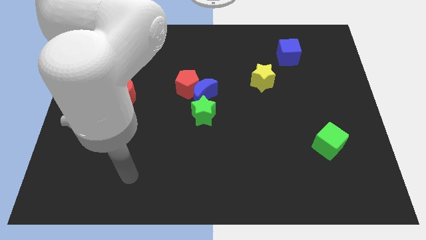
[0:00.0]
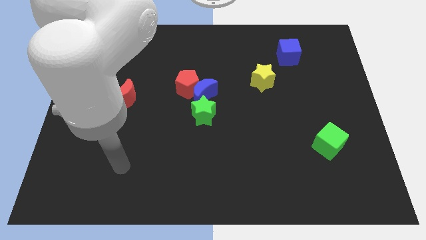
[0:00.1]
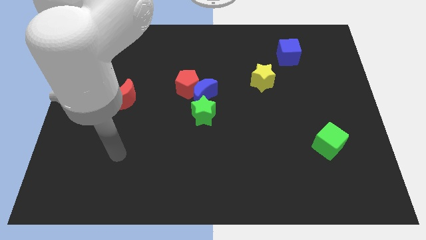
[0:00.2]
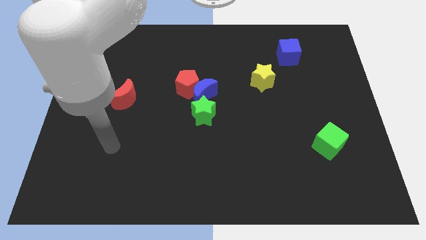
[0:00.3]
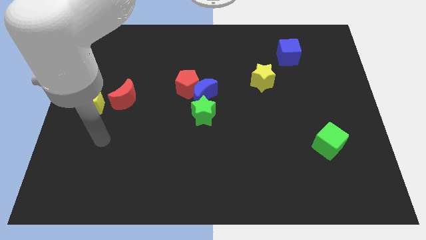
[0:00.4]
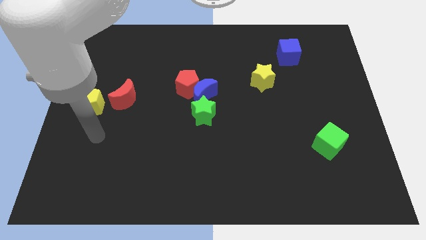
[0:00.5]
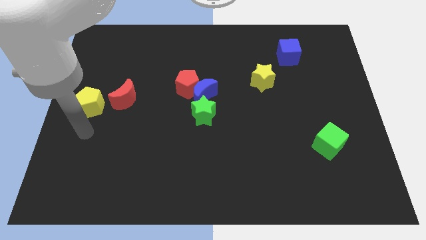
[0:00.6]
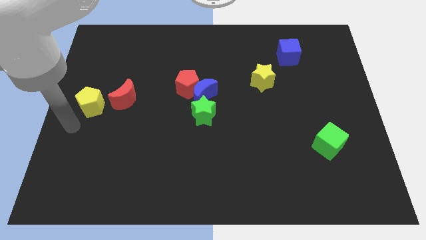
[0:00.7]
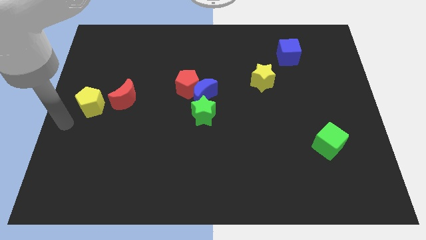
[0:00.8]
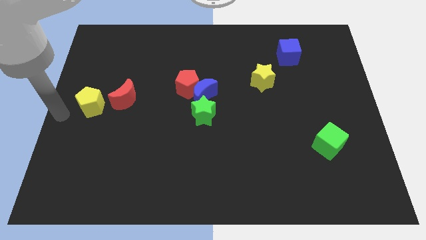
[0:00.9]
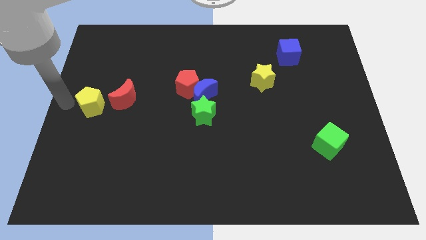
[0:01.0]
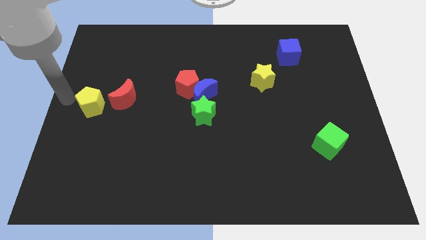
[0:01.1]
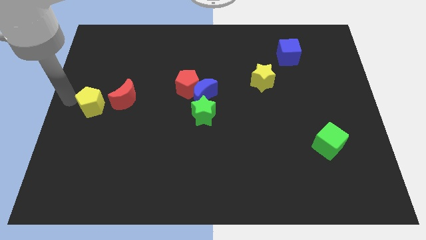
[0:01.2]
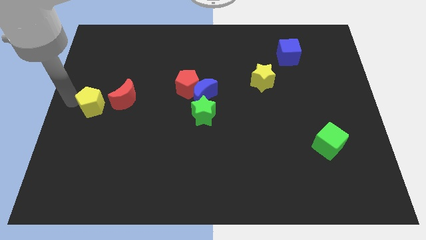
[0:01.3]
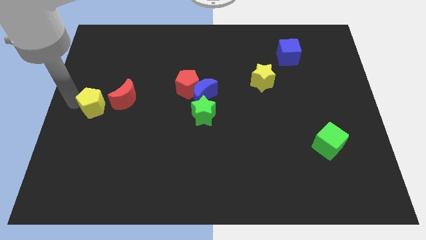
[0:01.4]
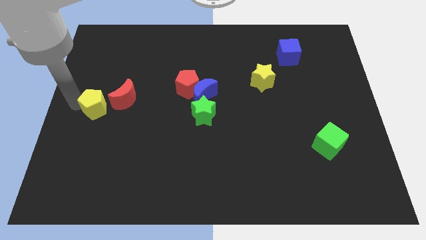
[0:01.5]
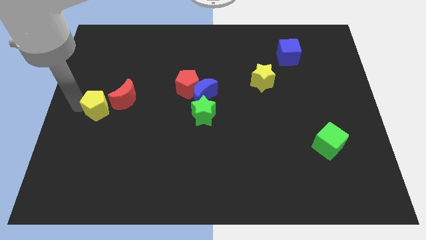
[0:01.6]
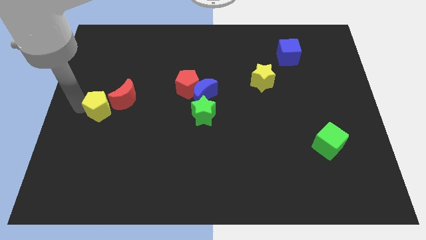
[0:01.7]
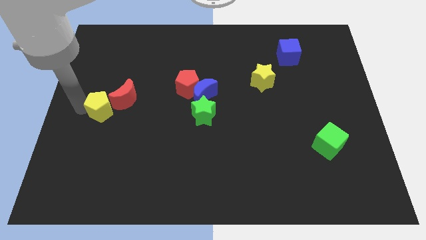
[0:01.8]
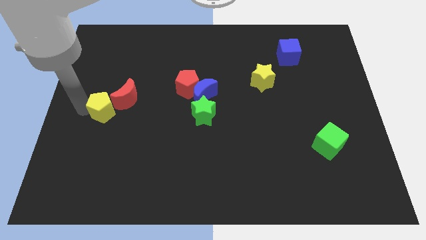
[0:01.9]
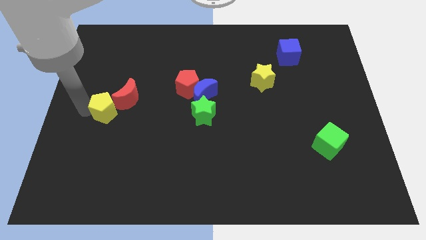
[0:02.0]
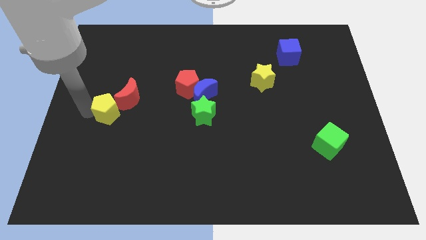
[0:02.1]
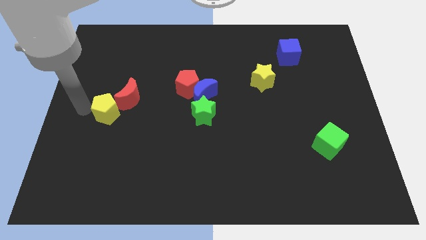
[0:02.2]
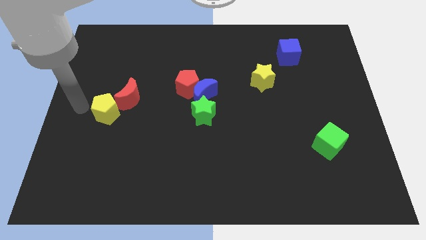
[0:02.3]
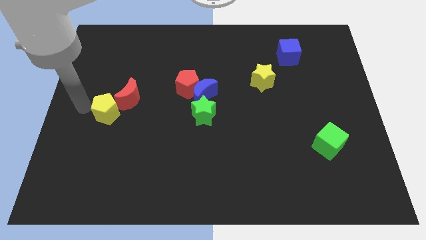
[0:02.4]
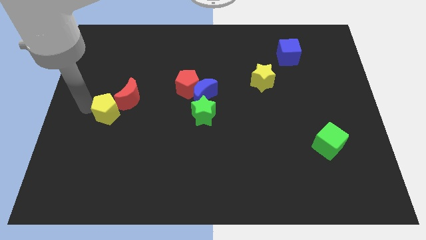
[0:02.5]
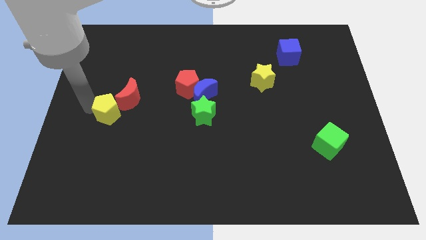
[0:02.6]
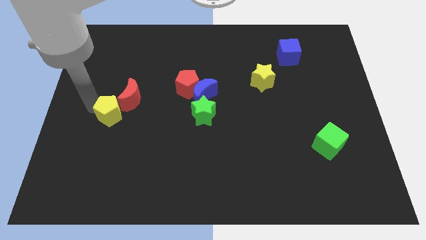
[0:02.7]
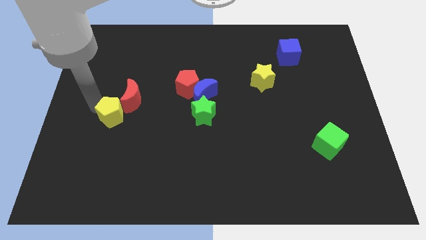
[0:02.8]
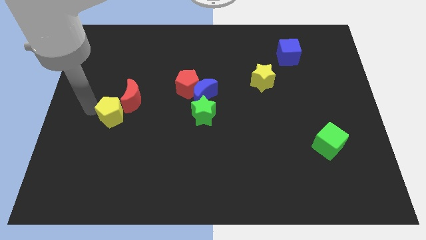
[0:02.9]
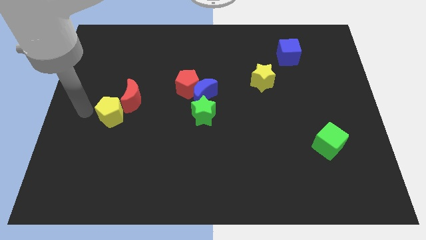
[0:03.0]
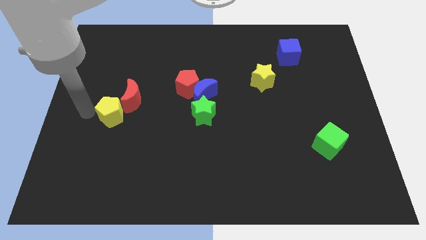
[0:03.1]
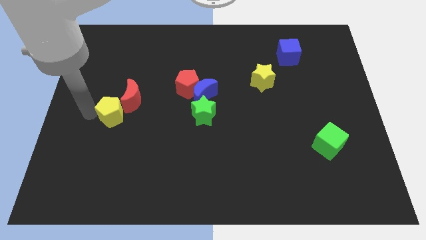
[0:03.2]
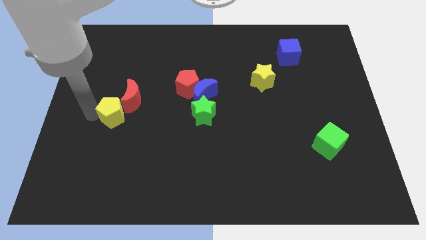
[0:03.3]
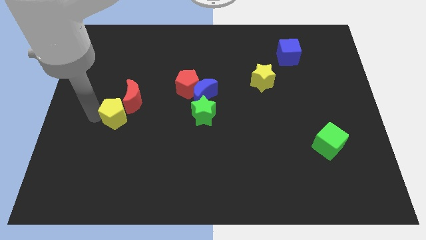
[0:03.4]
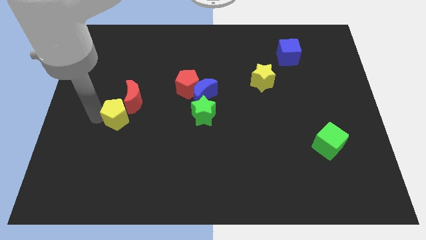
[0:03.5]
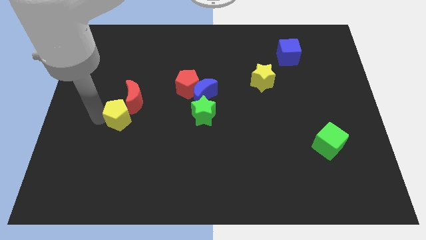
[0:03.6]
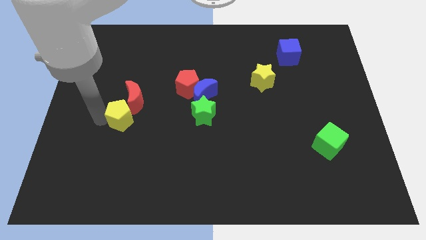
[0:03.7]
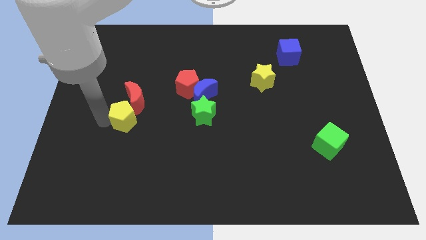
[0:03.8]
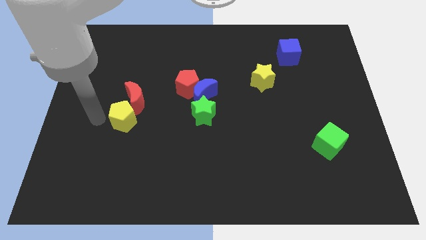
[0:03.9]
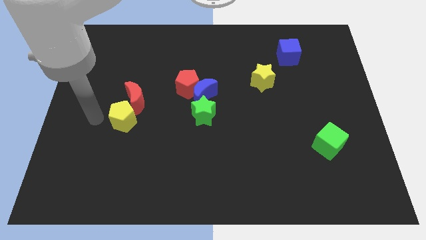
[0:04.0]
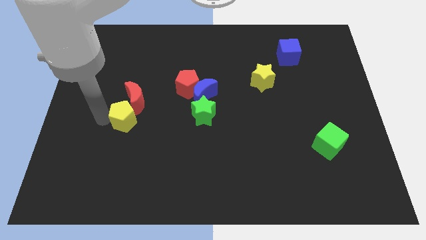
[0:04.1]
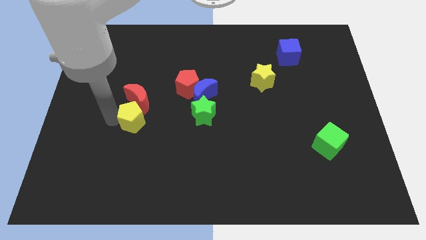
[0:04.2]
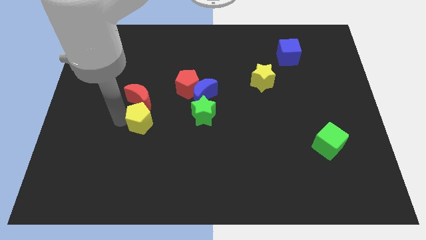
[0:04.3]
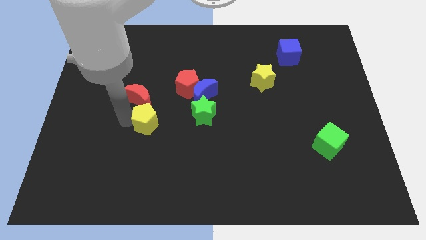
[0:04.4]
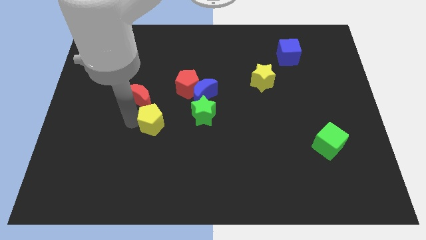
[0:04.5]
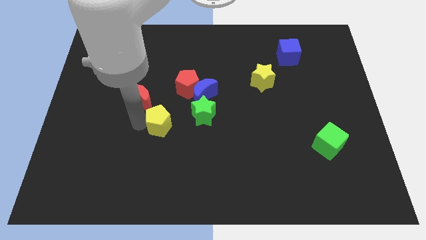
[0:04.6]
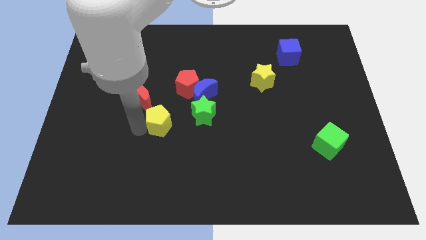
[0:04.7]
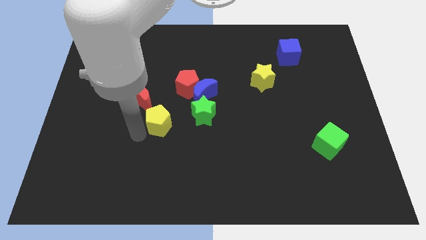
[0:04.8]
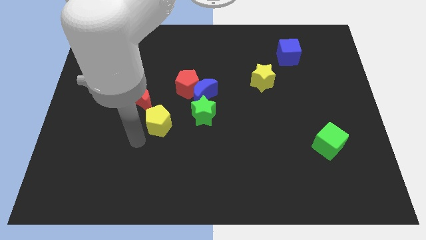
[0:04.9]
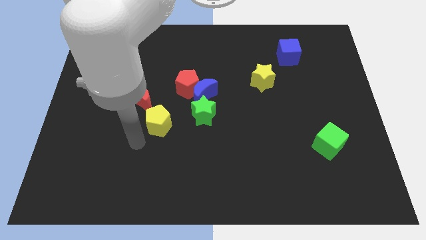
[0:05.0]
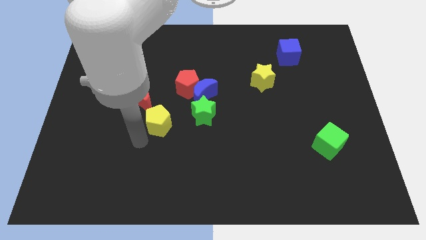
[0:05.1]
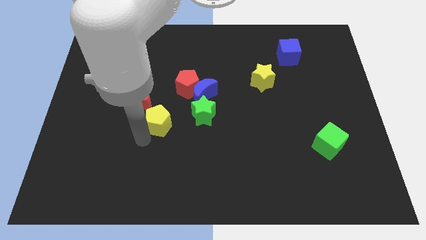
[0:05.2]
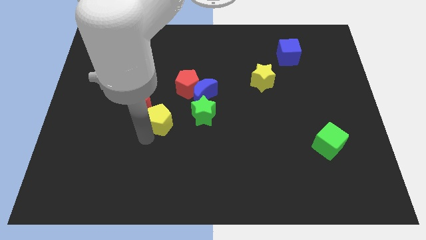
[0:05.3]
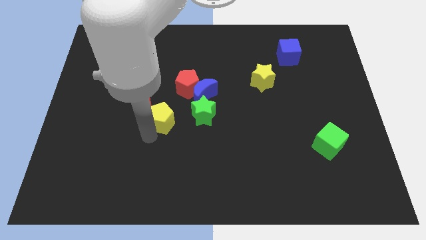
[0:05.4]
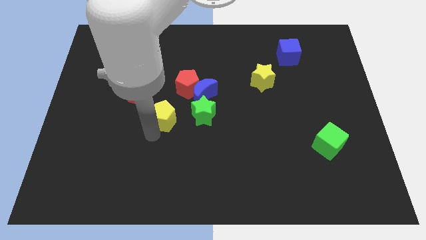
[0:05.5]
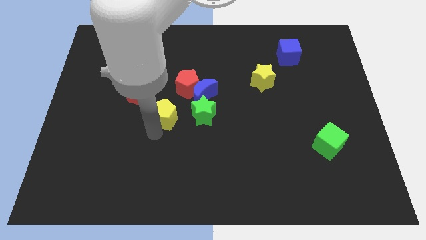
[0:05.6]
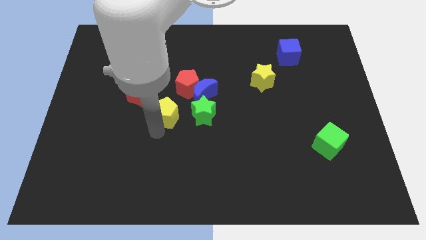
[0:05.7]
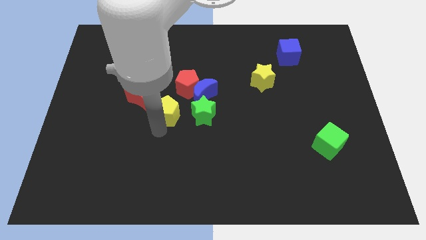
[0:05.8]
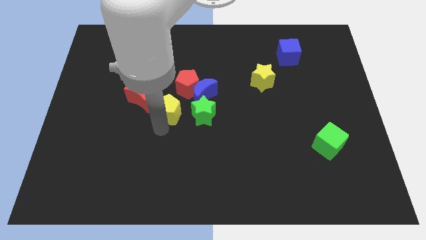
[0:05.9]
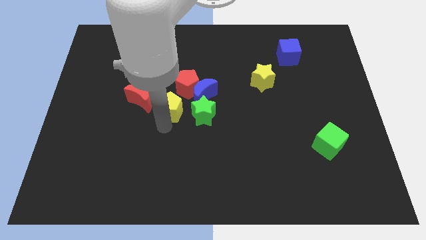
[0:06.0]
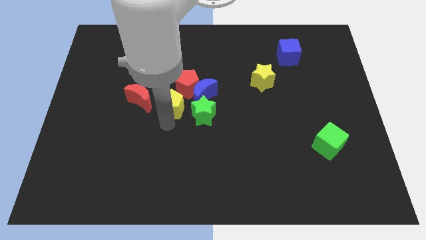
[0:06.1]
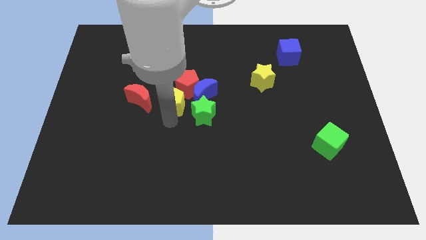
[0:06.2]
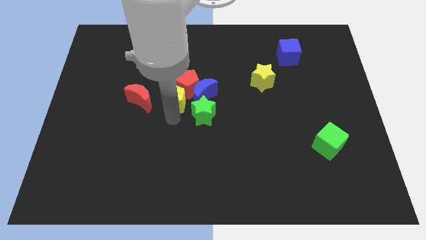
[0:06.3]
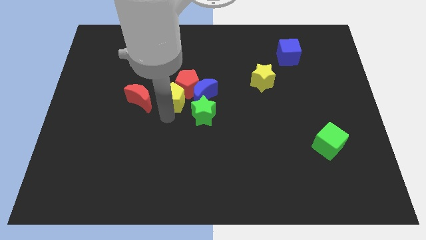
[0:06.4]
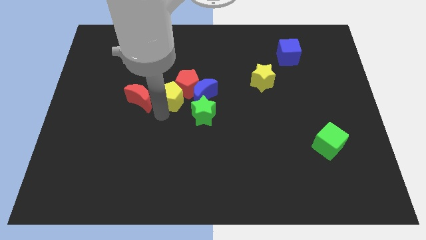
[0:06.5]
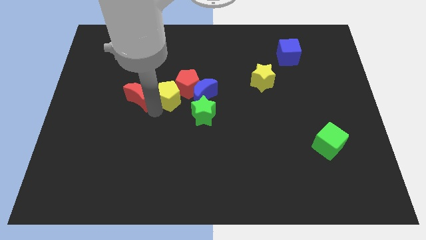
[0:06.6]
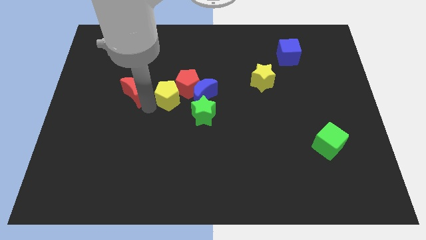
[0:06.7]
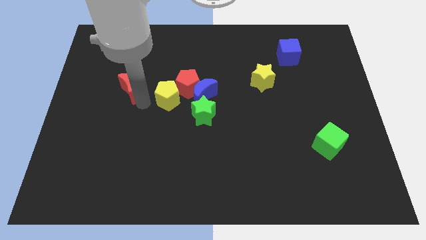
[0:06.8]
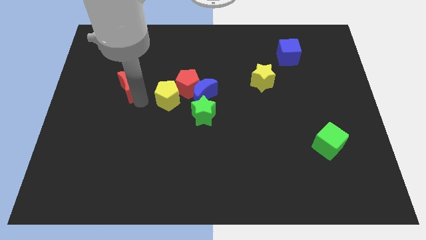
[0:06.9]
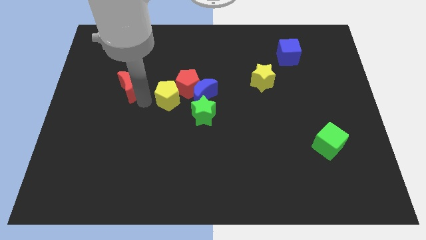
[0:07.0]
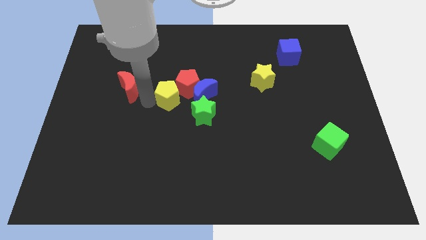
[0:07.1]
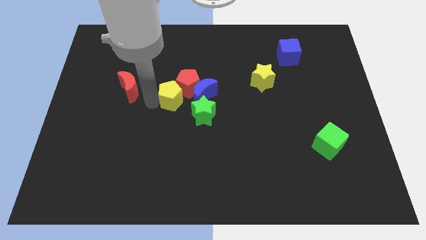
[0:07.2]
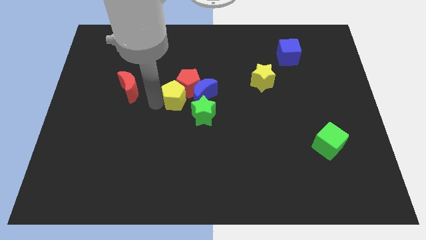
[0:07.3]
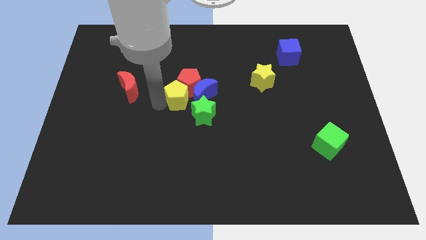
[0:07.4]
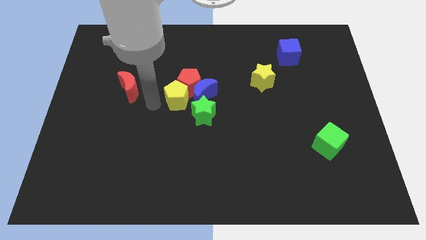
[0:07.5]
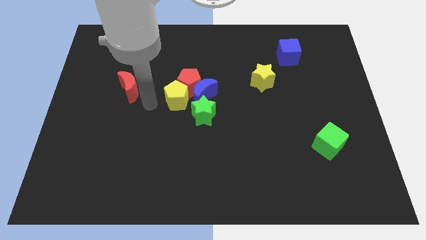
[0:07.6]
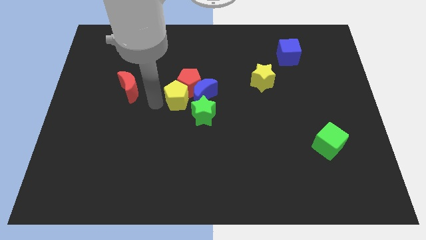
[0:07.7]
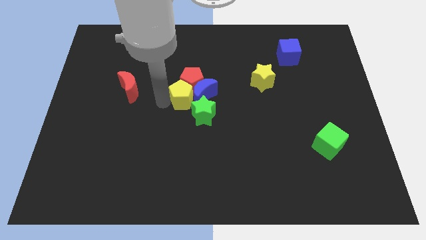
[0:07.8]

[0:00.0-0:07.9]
push the yellow pentagon close to the blue moon
